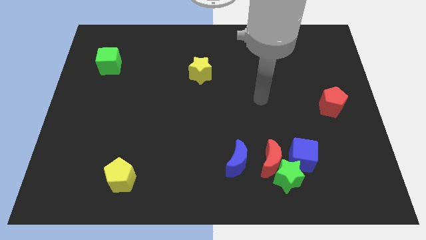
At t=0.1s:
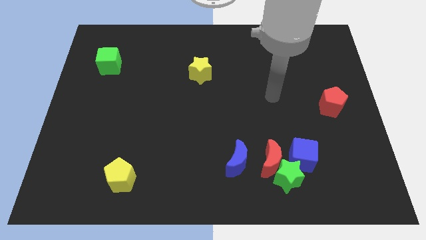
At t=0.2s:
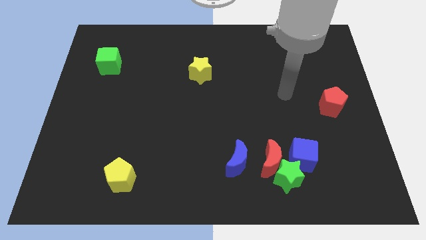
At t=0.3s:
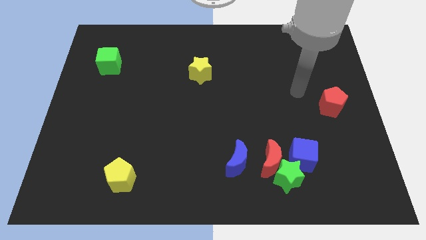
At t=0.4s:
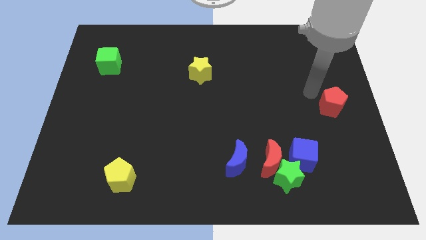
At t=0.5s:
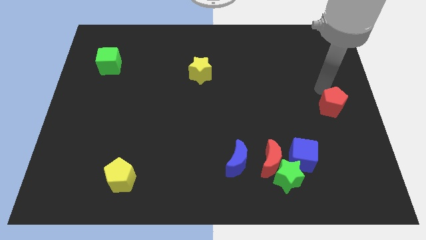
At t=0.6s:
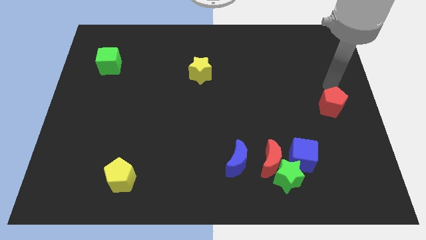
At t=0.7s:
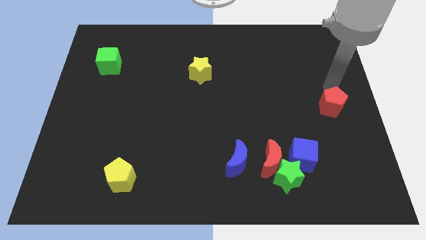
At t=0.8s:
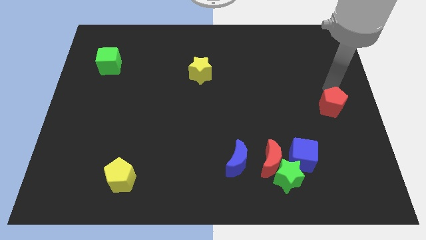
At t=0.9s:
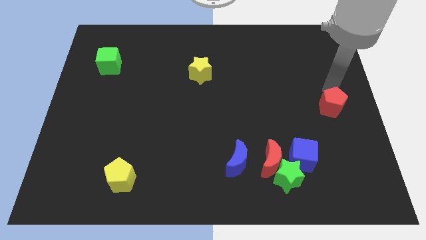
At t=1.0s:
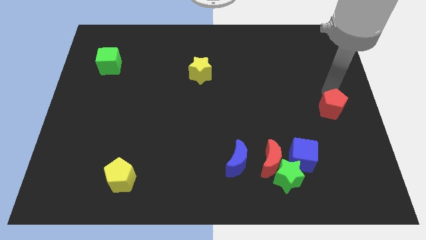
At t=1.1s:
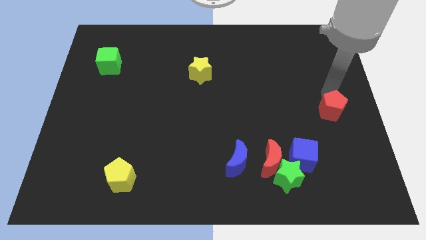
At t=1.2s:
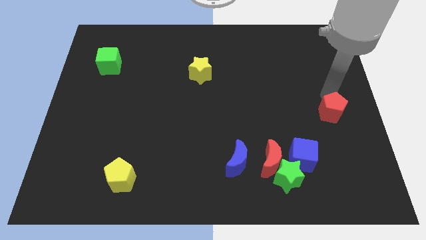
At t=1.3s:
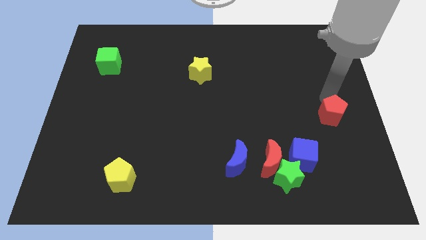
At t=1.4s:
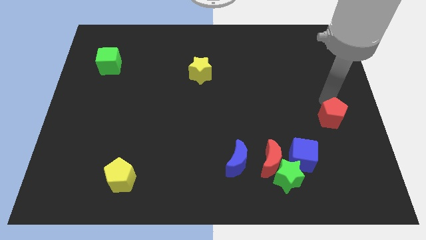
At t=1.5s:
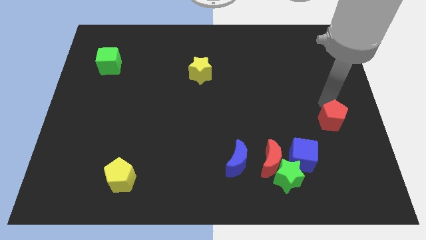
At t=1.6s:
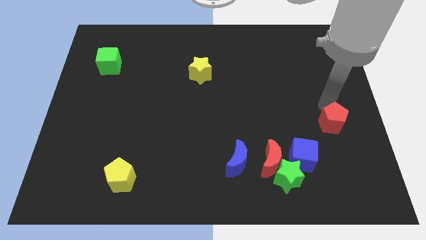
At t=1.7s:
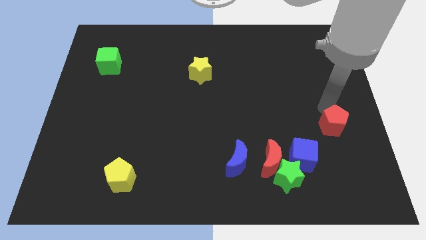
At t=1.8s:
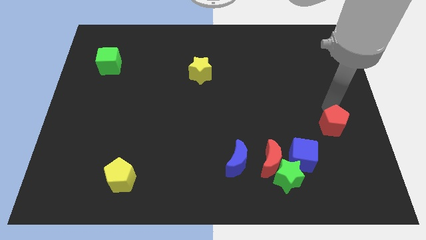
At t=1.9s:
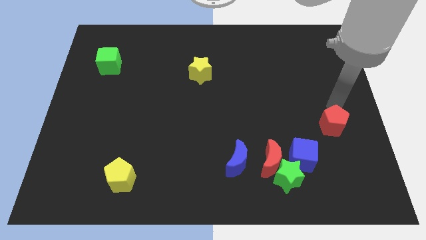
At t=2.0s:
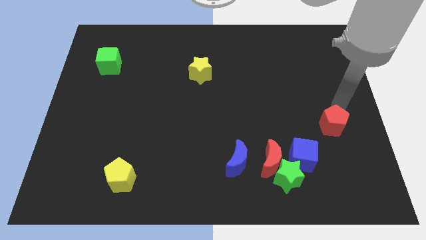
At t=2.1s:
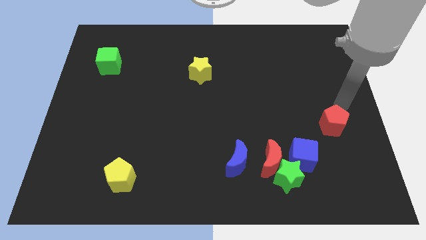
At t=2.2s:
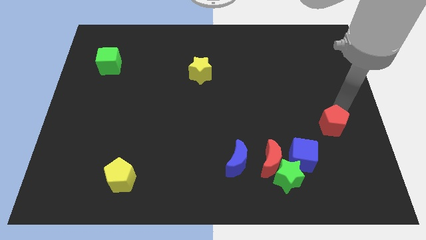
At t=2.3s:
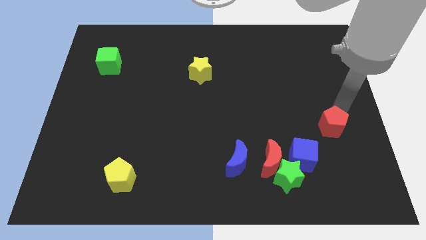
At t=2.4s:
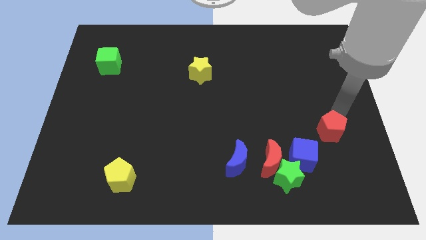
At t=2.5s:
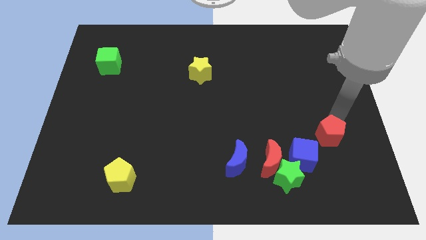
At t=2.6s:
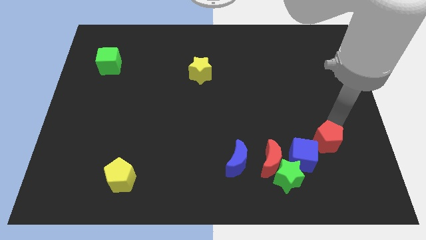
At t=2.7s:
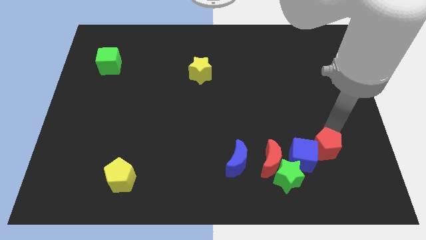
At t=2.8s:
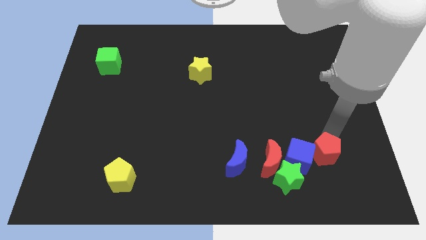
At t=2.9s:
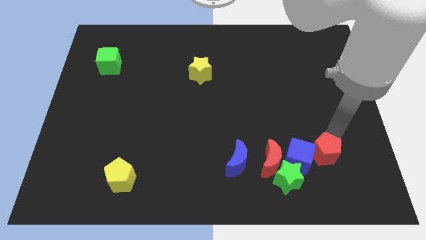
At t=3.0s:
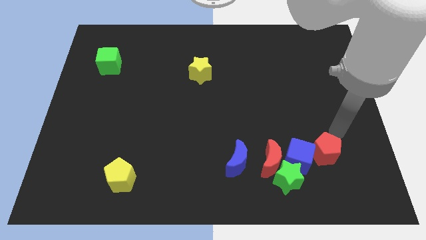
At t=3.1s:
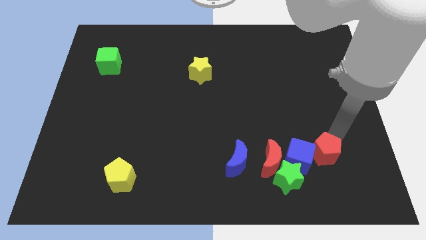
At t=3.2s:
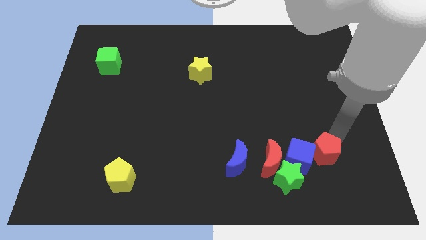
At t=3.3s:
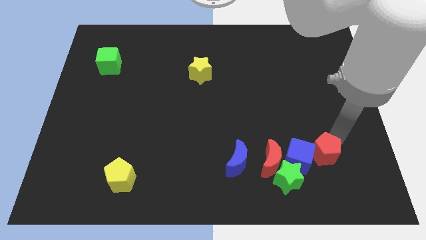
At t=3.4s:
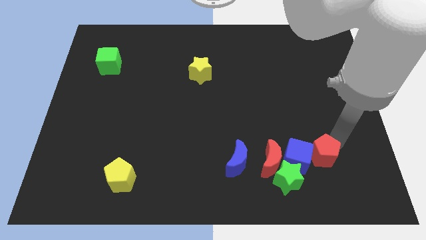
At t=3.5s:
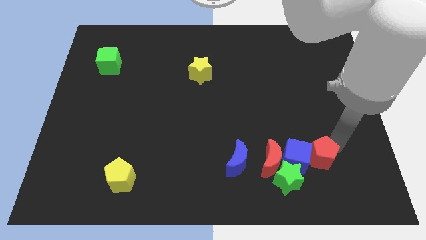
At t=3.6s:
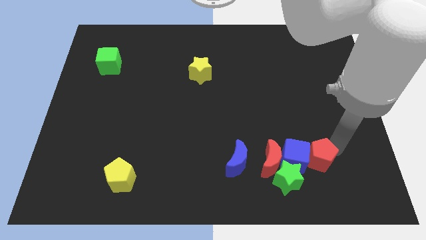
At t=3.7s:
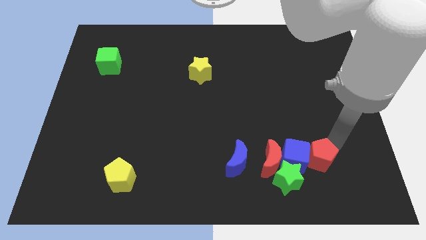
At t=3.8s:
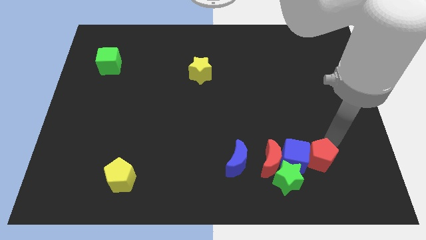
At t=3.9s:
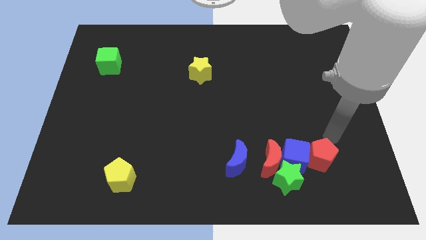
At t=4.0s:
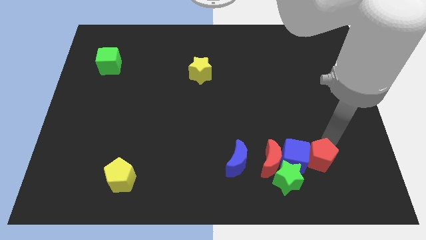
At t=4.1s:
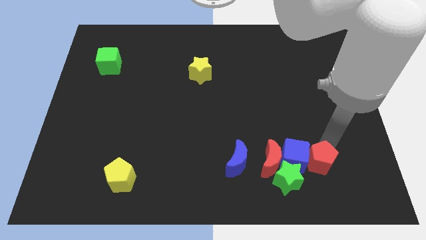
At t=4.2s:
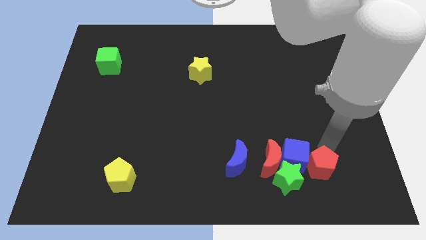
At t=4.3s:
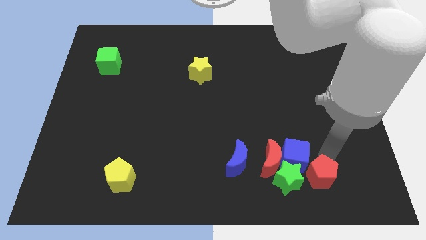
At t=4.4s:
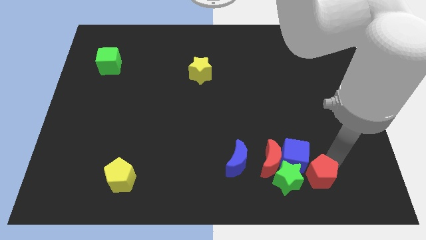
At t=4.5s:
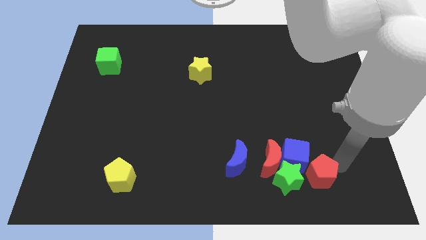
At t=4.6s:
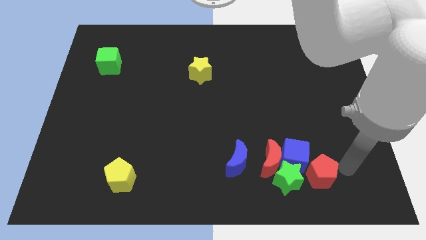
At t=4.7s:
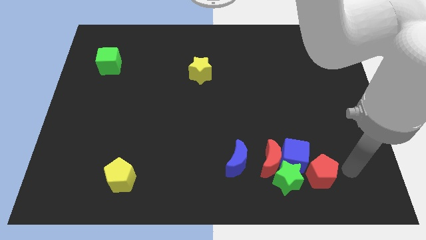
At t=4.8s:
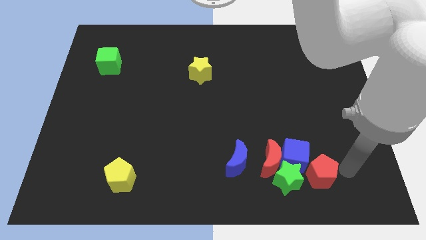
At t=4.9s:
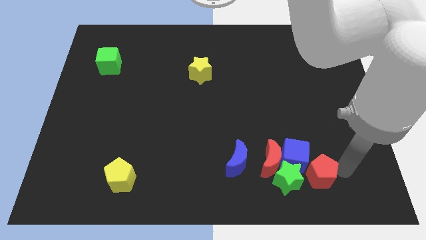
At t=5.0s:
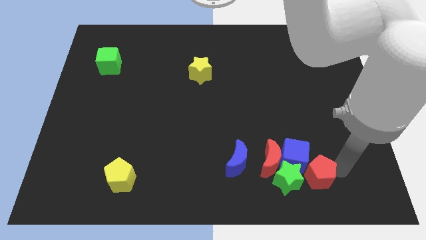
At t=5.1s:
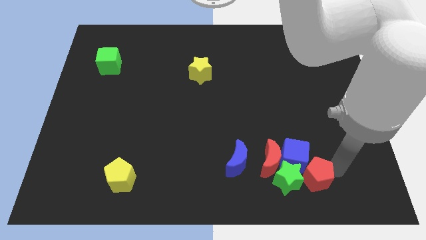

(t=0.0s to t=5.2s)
push the red pentagon towards the green star

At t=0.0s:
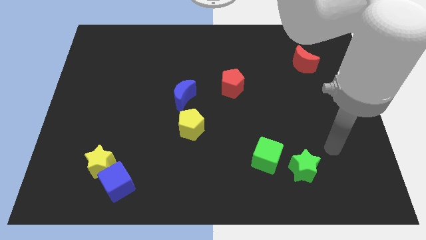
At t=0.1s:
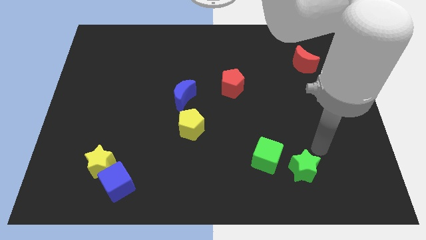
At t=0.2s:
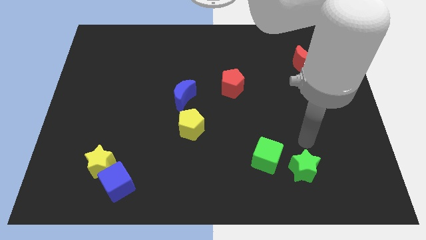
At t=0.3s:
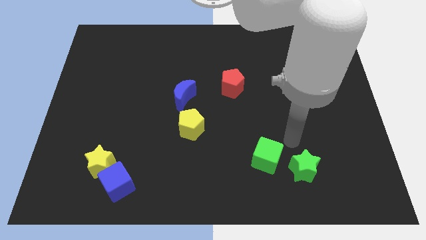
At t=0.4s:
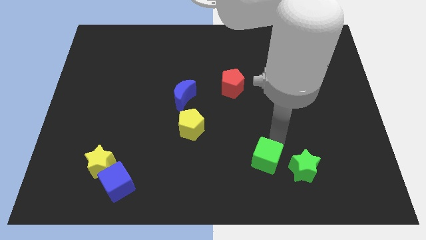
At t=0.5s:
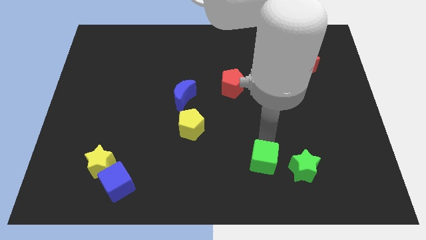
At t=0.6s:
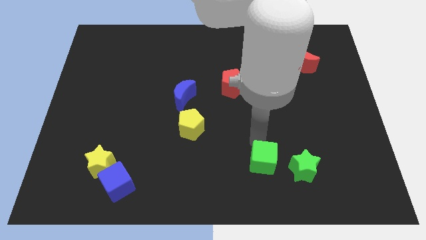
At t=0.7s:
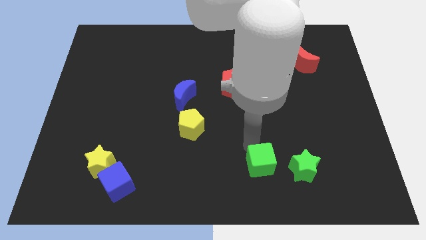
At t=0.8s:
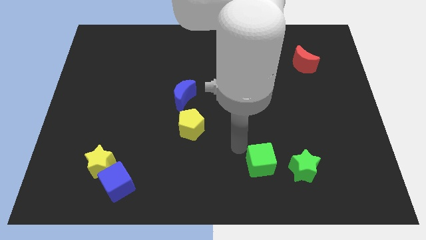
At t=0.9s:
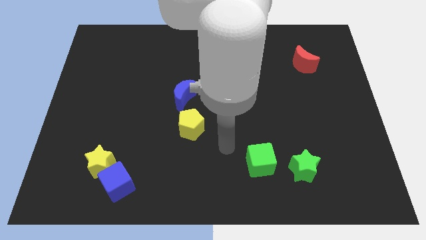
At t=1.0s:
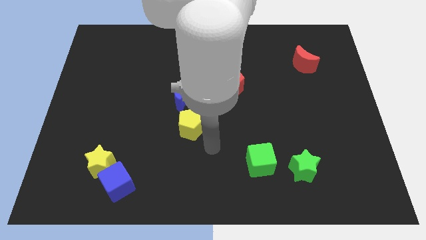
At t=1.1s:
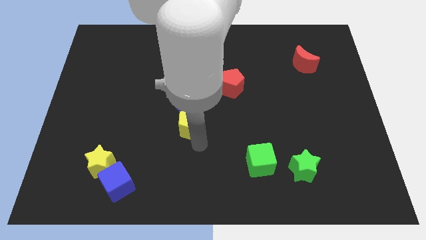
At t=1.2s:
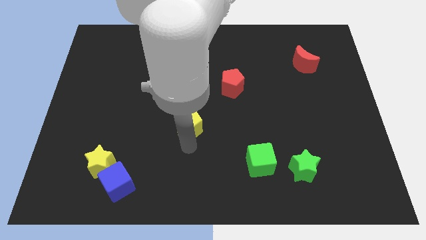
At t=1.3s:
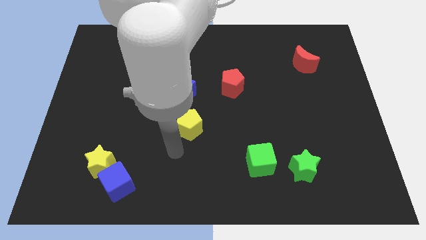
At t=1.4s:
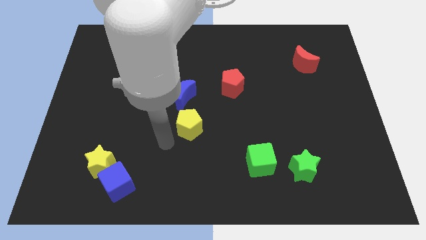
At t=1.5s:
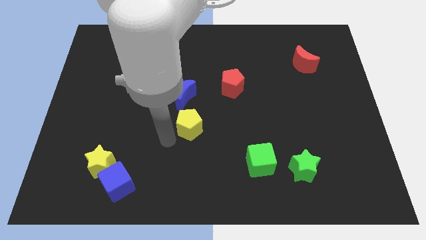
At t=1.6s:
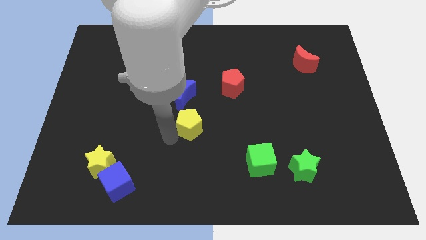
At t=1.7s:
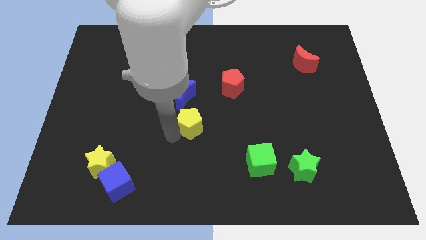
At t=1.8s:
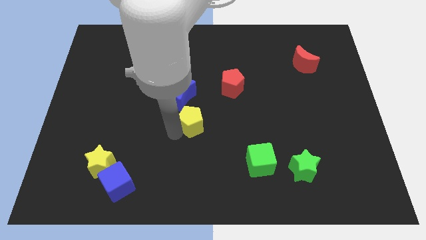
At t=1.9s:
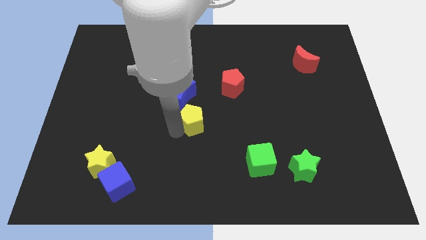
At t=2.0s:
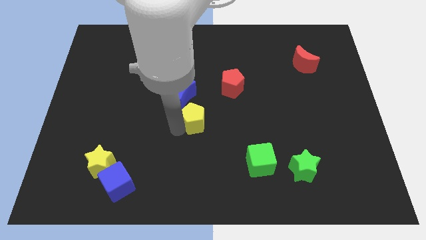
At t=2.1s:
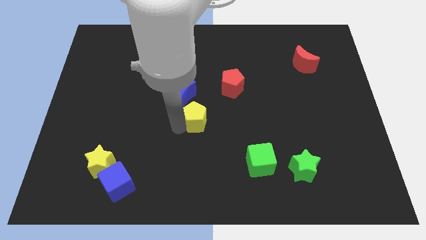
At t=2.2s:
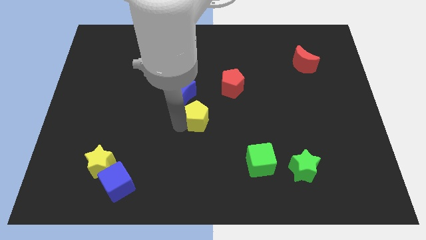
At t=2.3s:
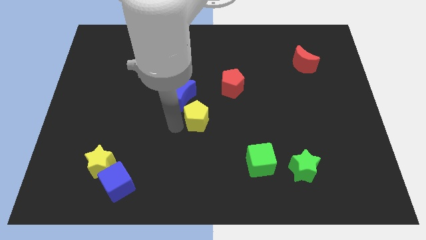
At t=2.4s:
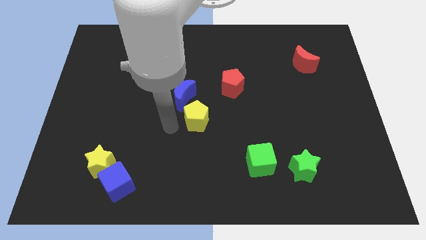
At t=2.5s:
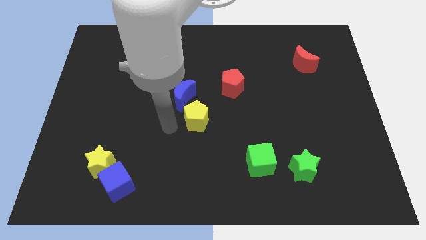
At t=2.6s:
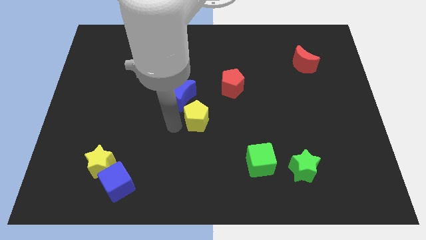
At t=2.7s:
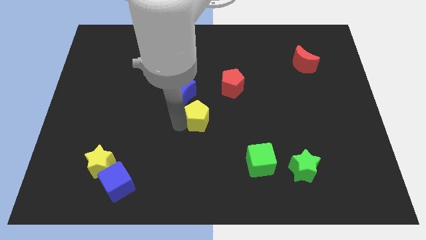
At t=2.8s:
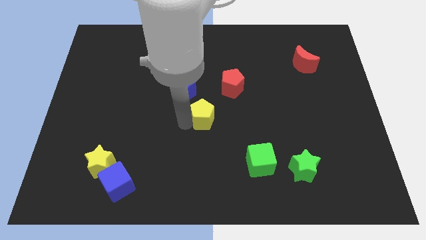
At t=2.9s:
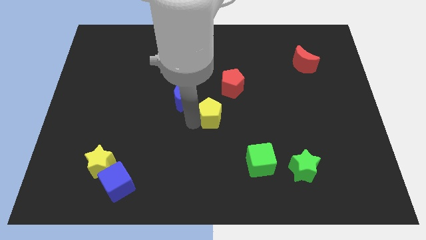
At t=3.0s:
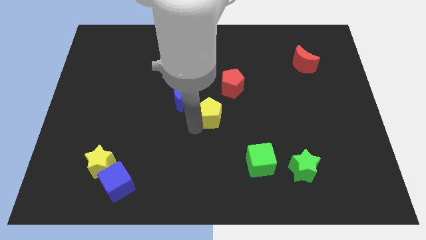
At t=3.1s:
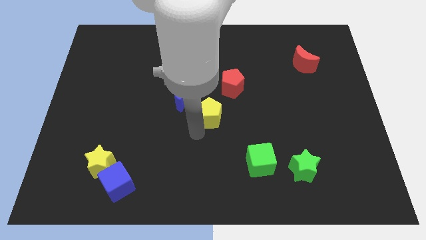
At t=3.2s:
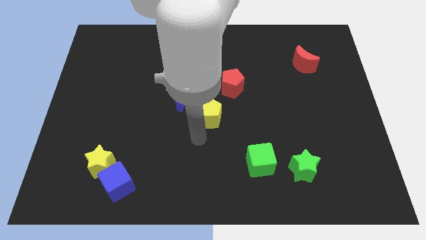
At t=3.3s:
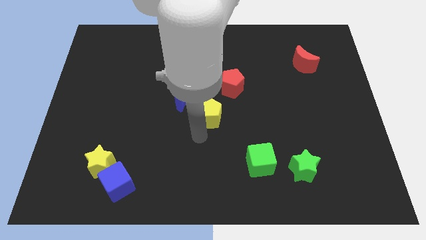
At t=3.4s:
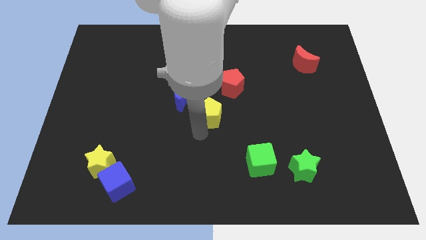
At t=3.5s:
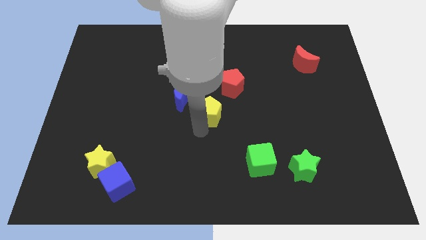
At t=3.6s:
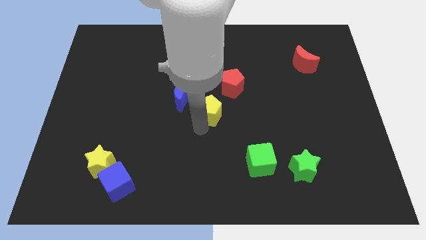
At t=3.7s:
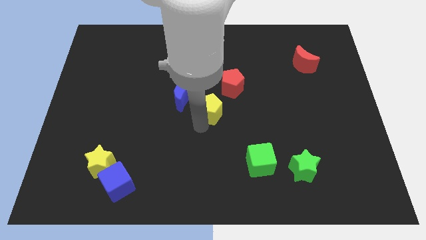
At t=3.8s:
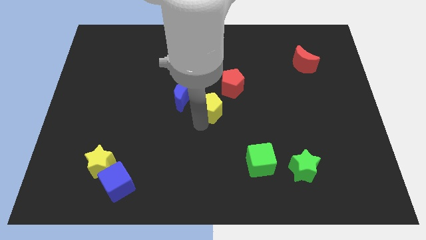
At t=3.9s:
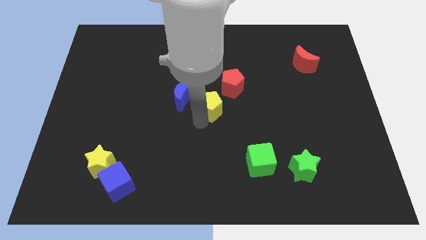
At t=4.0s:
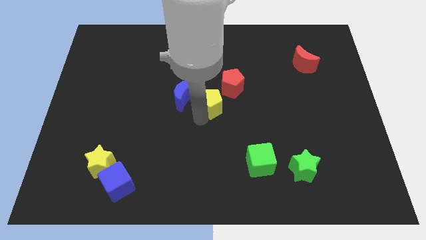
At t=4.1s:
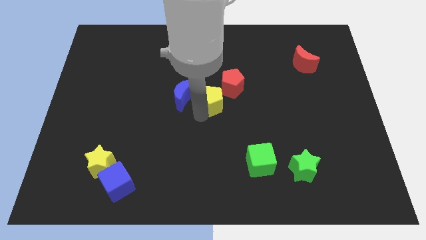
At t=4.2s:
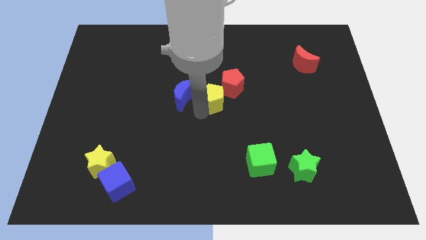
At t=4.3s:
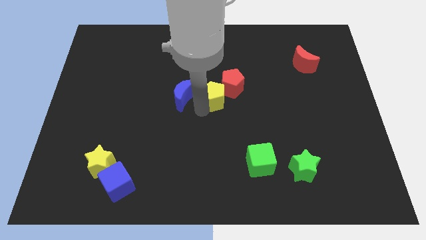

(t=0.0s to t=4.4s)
push the yellow pentagon next to the red pentagon
